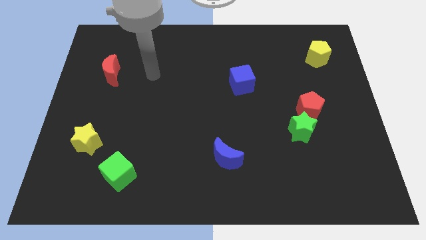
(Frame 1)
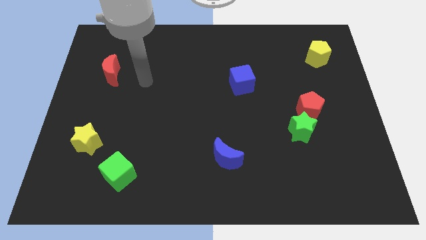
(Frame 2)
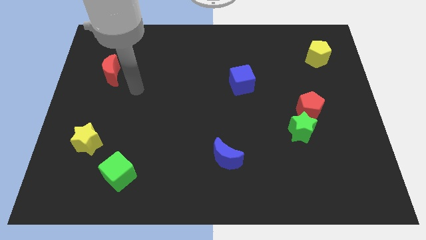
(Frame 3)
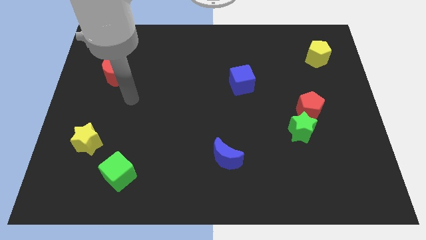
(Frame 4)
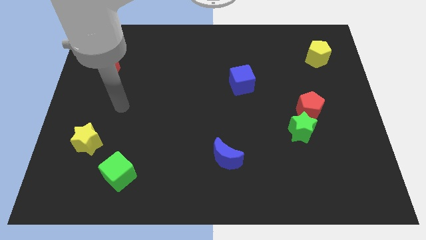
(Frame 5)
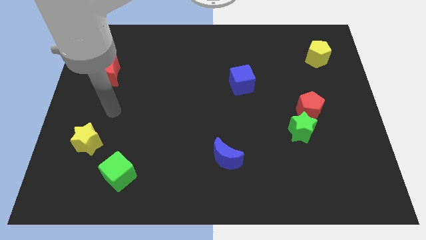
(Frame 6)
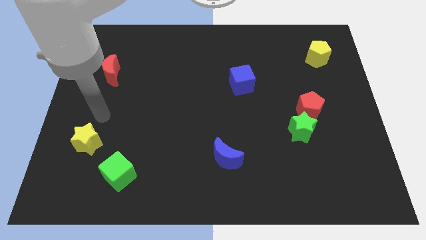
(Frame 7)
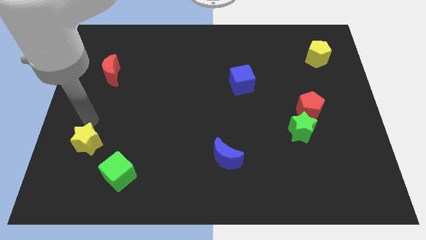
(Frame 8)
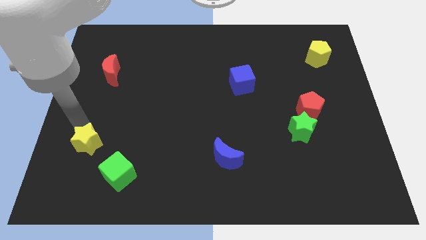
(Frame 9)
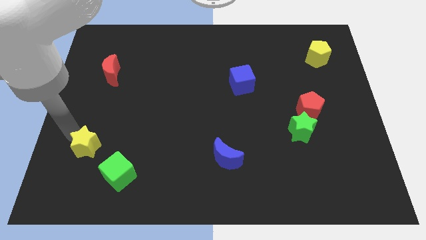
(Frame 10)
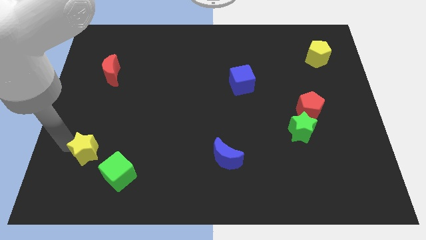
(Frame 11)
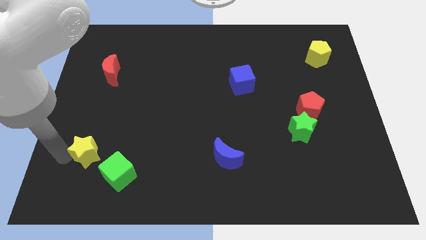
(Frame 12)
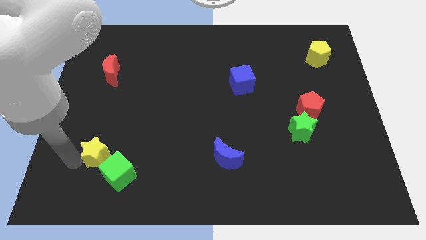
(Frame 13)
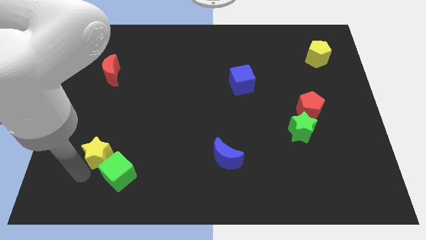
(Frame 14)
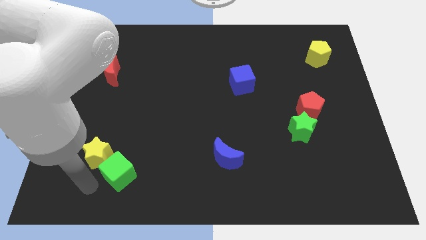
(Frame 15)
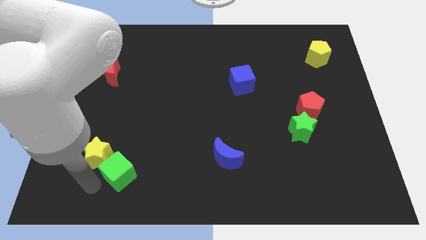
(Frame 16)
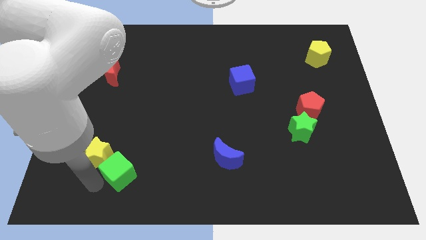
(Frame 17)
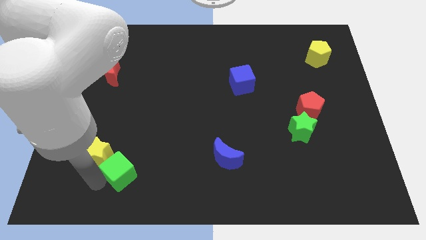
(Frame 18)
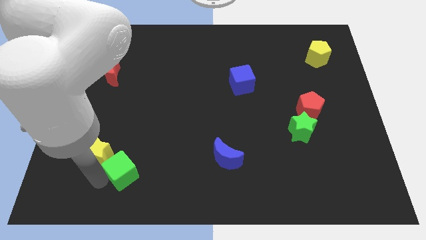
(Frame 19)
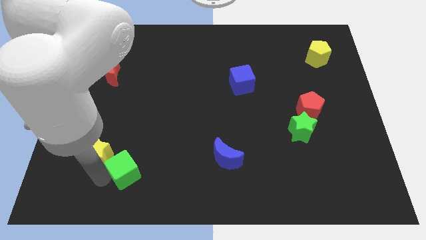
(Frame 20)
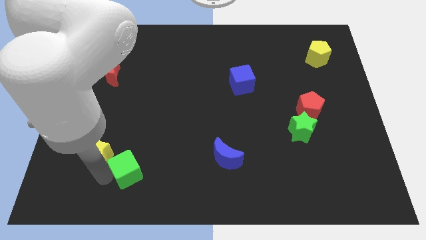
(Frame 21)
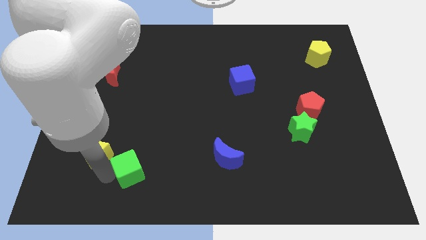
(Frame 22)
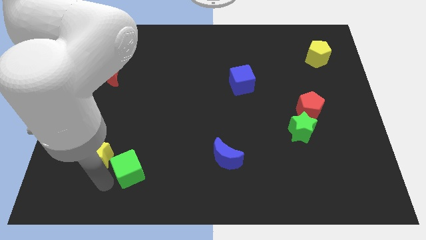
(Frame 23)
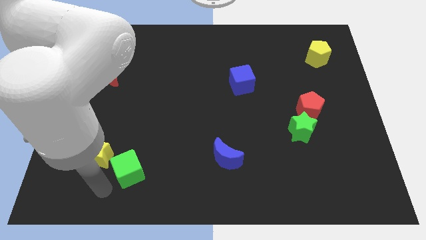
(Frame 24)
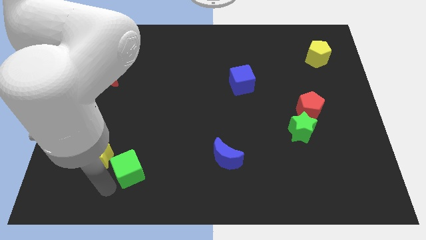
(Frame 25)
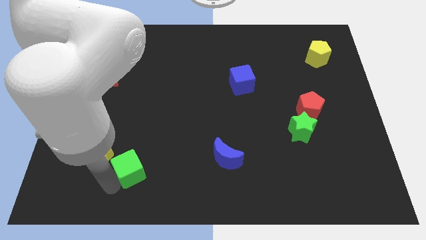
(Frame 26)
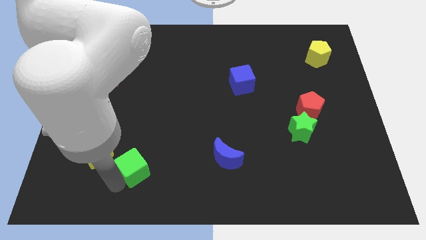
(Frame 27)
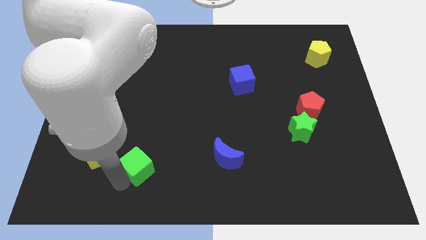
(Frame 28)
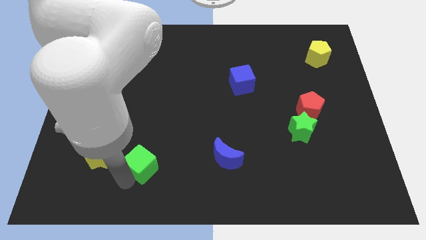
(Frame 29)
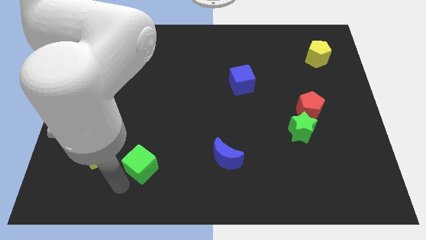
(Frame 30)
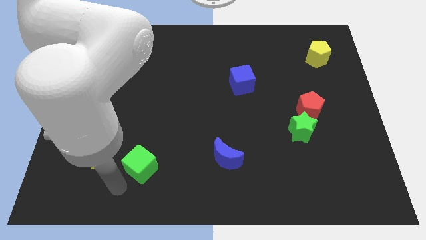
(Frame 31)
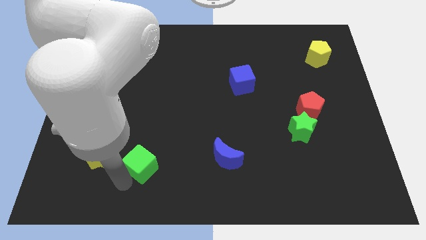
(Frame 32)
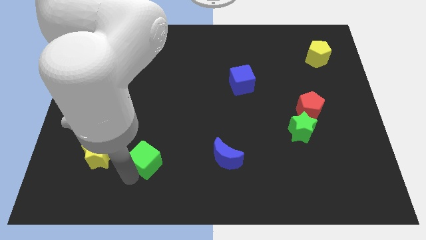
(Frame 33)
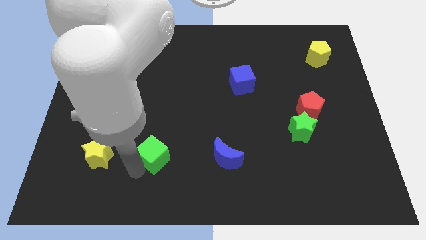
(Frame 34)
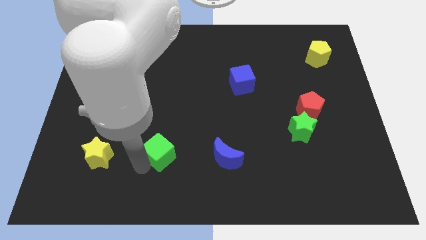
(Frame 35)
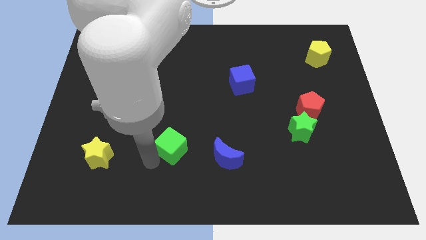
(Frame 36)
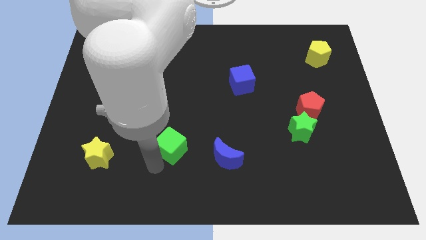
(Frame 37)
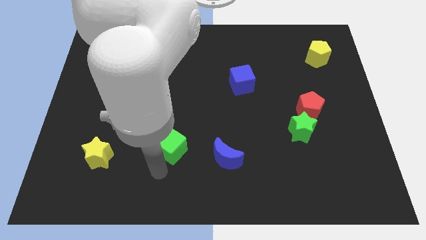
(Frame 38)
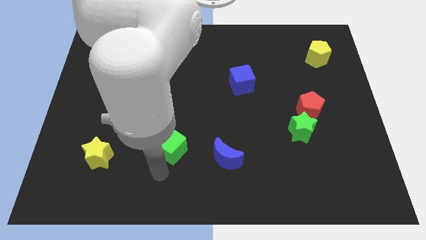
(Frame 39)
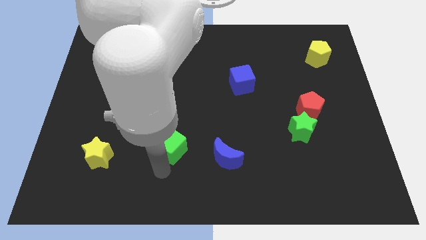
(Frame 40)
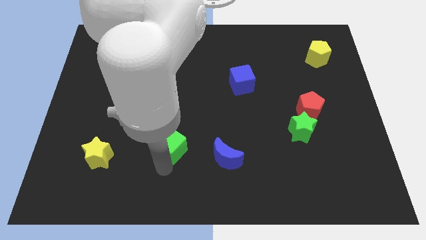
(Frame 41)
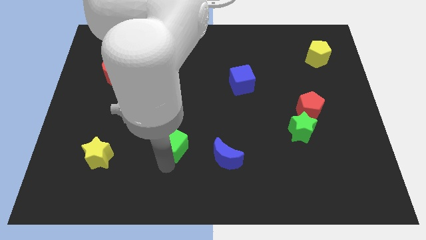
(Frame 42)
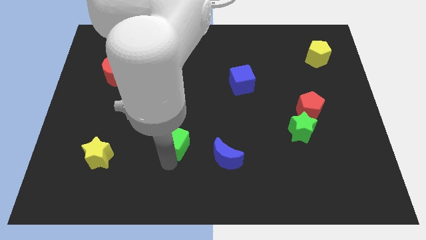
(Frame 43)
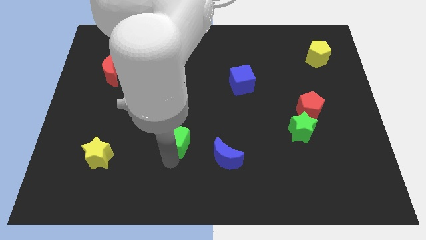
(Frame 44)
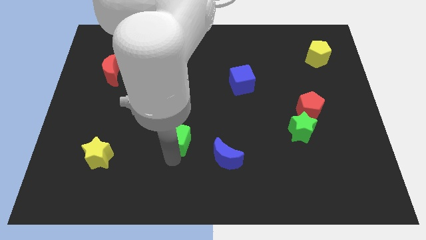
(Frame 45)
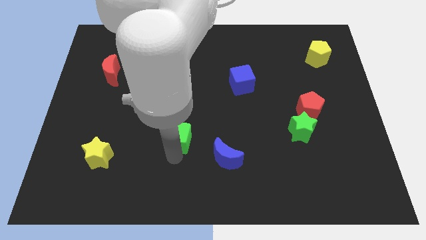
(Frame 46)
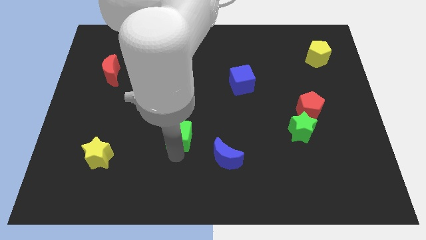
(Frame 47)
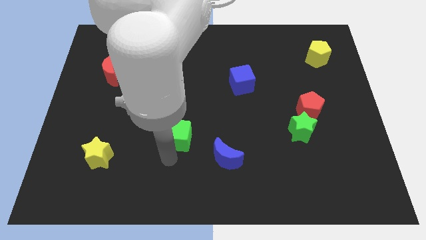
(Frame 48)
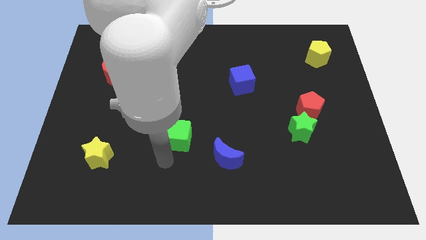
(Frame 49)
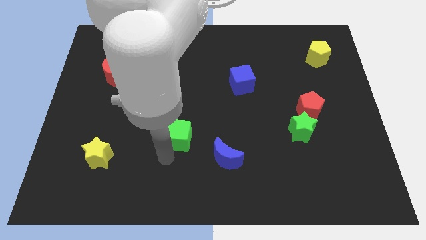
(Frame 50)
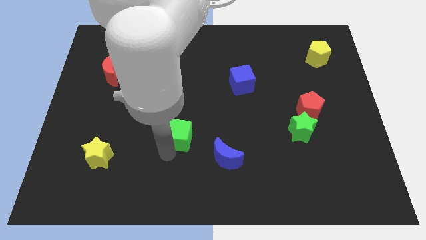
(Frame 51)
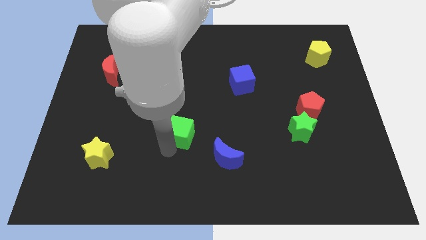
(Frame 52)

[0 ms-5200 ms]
slide the green cube to the center of the board

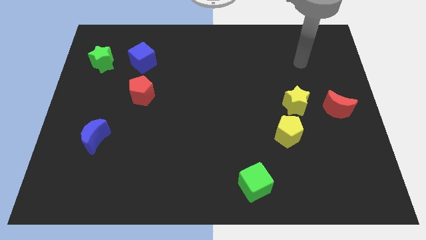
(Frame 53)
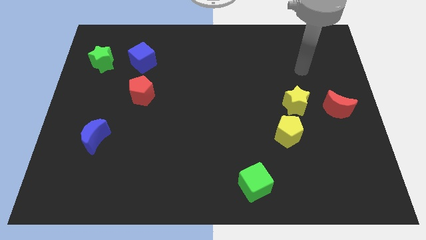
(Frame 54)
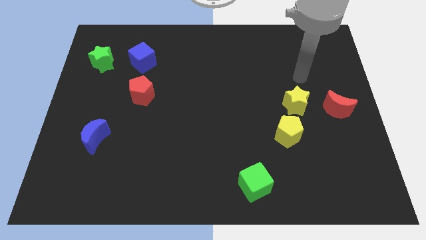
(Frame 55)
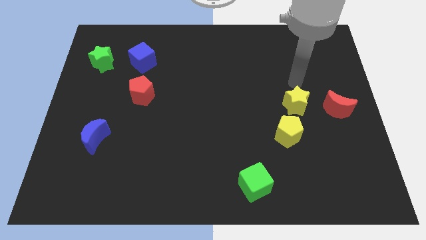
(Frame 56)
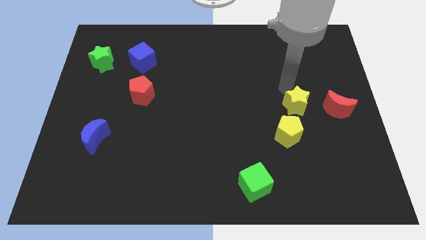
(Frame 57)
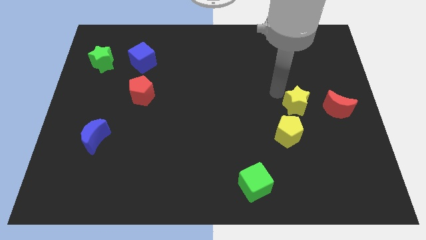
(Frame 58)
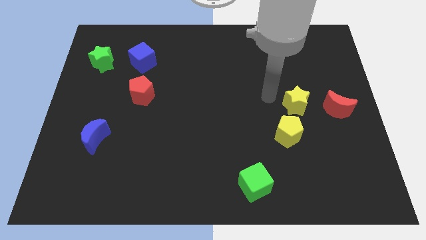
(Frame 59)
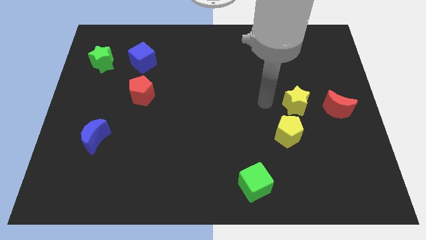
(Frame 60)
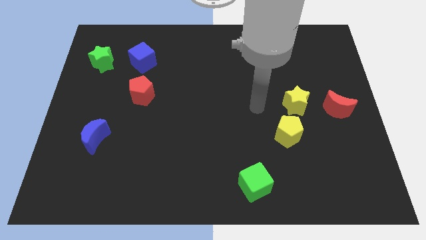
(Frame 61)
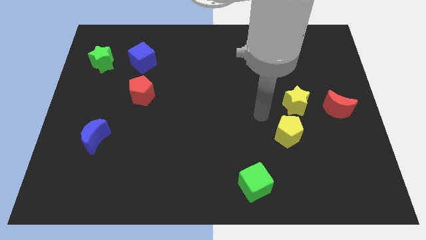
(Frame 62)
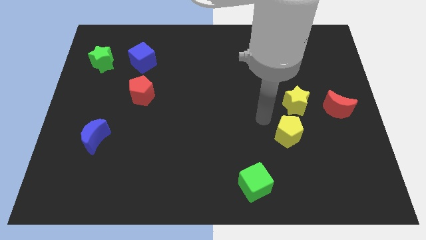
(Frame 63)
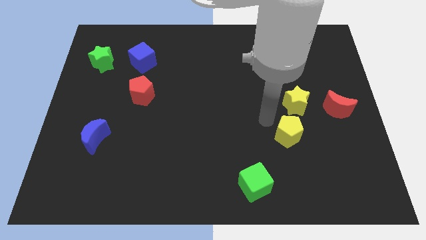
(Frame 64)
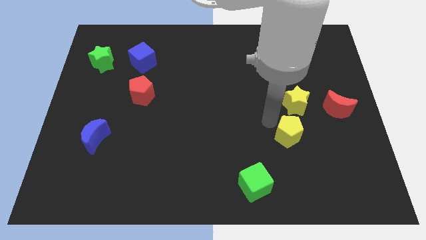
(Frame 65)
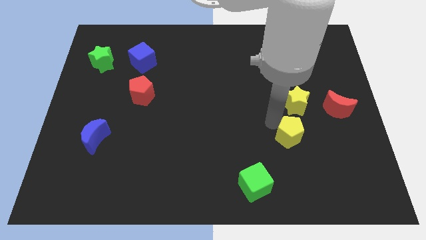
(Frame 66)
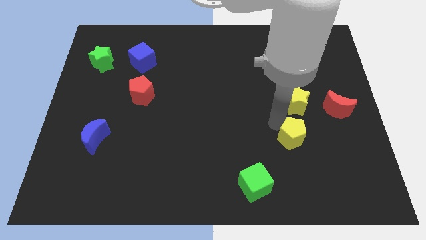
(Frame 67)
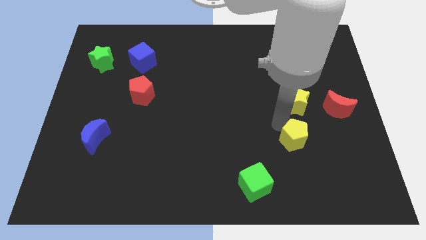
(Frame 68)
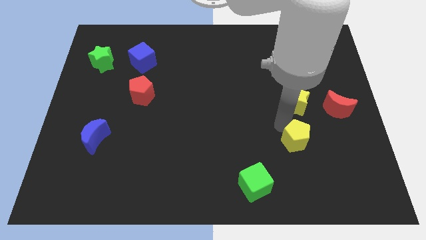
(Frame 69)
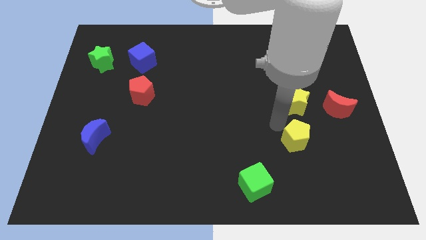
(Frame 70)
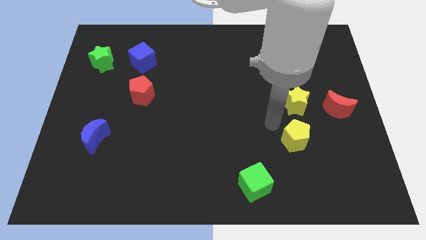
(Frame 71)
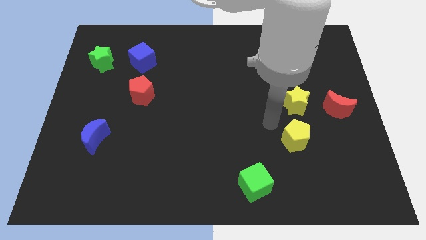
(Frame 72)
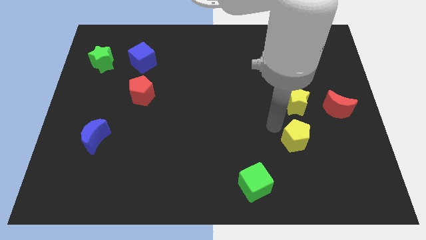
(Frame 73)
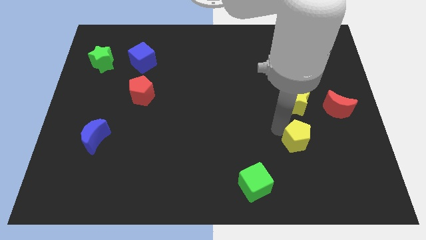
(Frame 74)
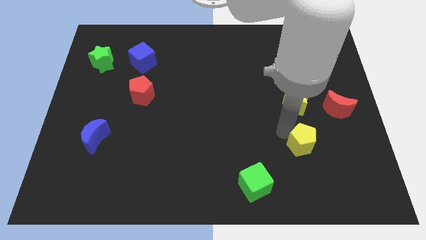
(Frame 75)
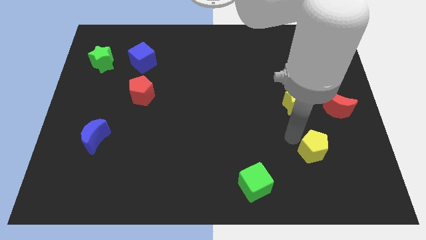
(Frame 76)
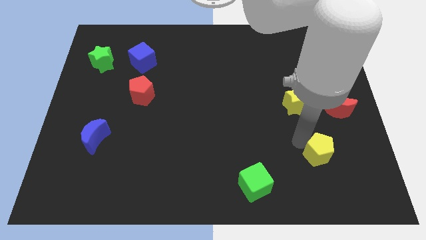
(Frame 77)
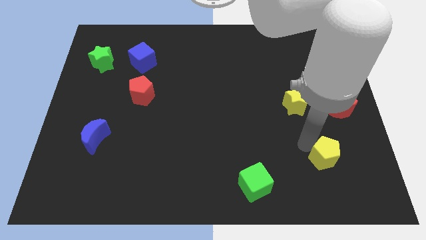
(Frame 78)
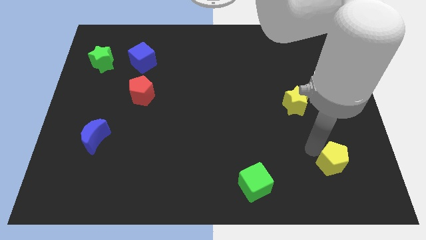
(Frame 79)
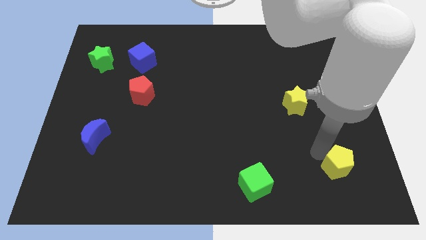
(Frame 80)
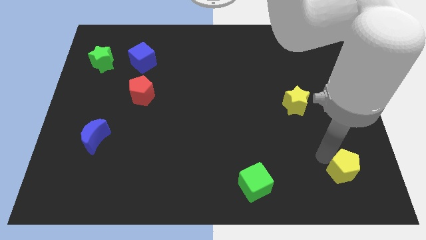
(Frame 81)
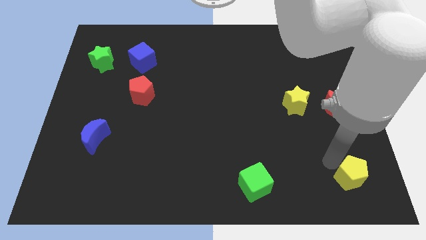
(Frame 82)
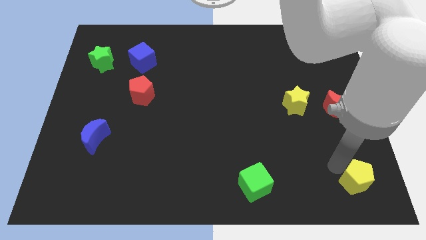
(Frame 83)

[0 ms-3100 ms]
push the yellow pentagon to the bottom right of the board
